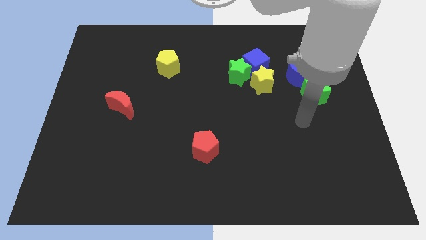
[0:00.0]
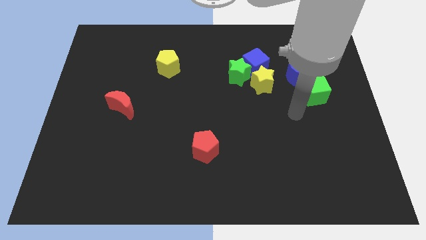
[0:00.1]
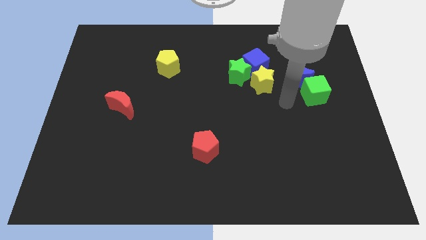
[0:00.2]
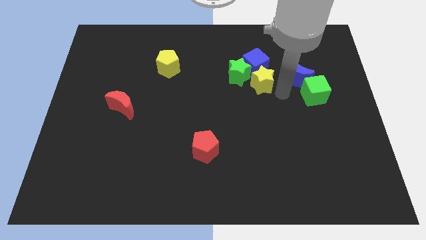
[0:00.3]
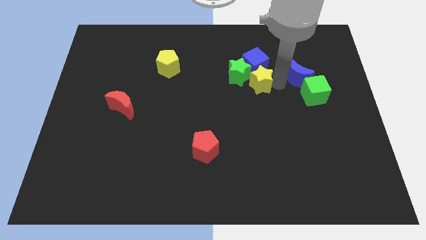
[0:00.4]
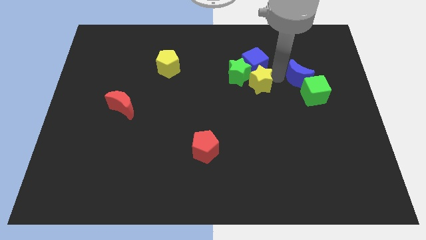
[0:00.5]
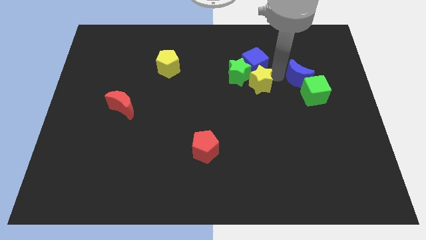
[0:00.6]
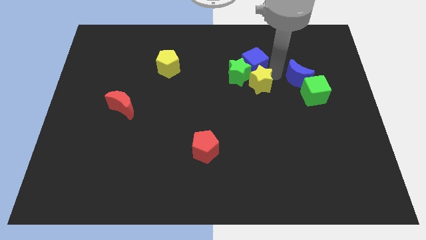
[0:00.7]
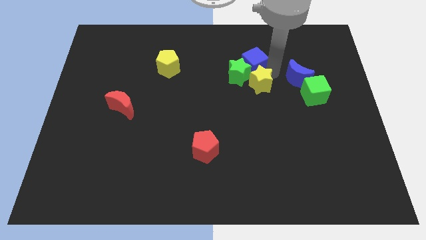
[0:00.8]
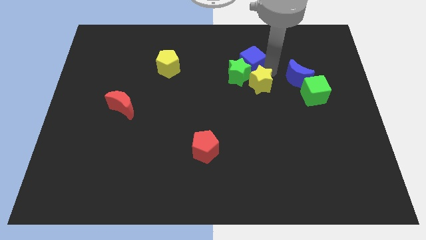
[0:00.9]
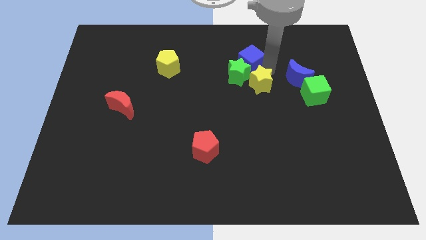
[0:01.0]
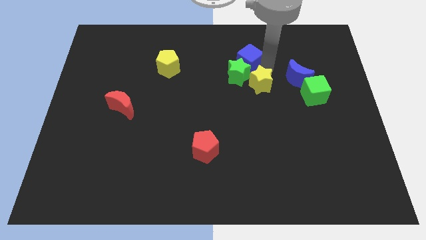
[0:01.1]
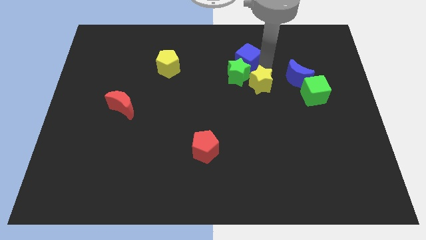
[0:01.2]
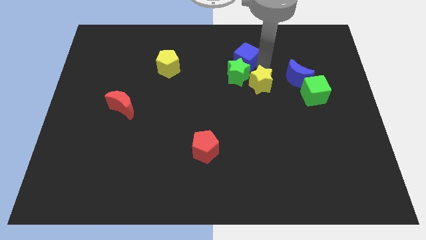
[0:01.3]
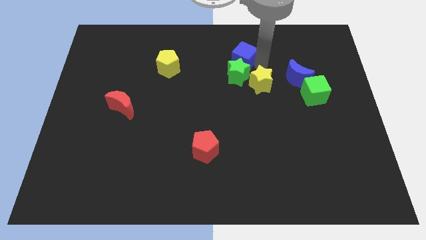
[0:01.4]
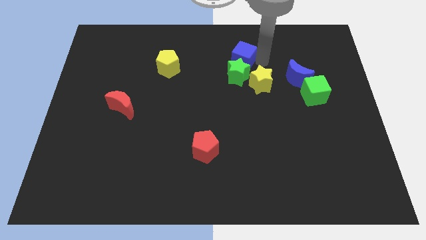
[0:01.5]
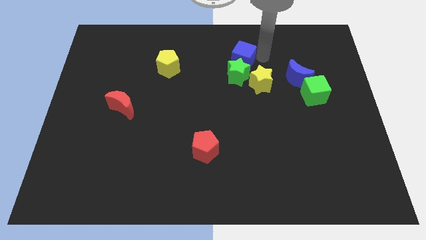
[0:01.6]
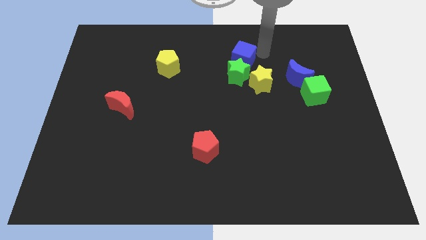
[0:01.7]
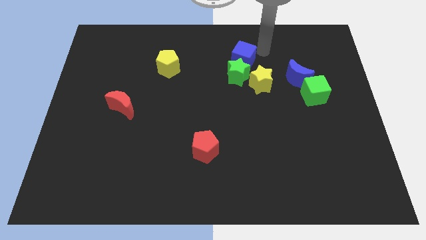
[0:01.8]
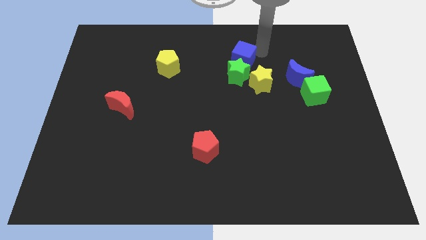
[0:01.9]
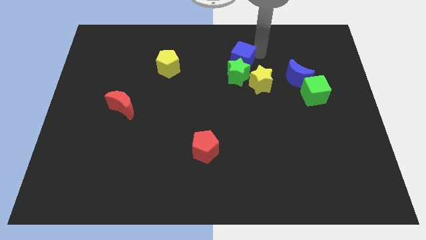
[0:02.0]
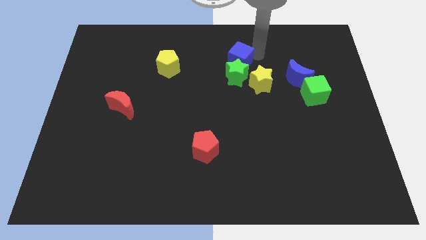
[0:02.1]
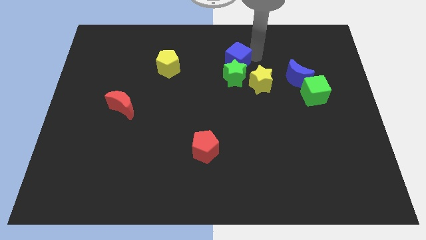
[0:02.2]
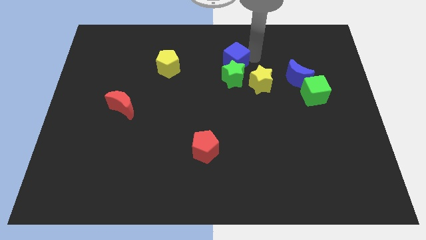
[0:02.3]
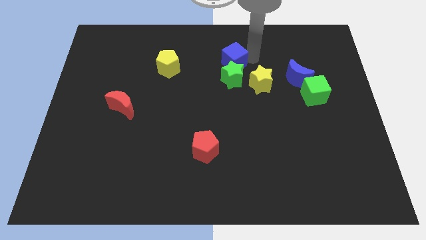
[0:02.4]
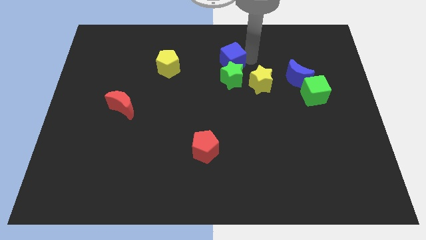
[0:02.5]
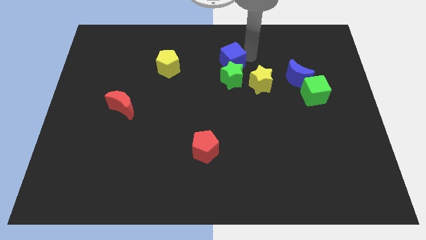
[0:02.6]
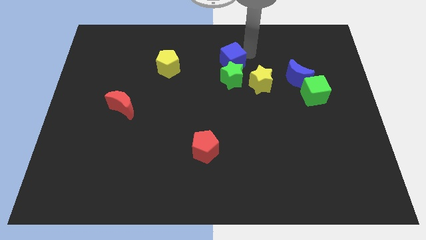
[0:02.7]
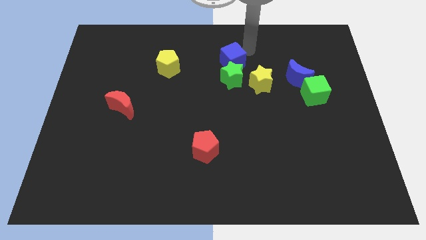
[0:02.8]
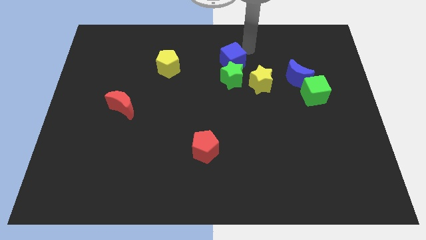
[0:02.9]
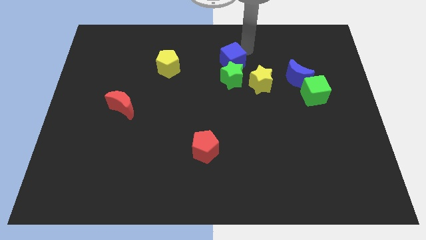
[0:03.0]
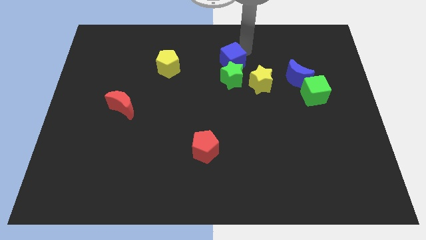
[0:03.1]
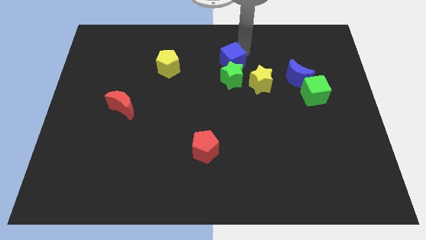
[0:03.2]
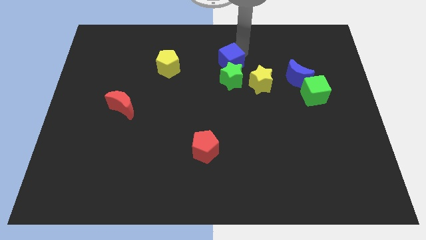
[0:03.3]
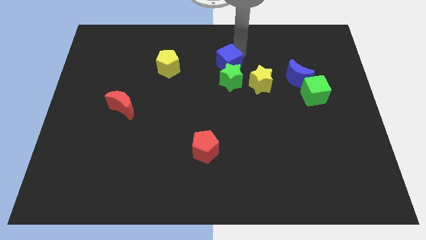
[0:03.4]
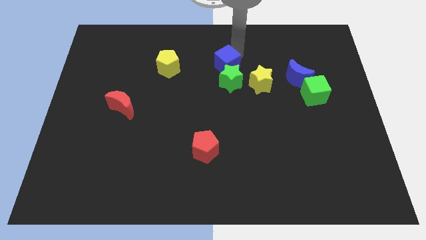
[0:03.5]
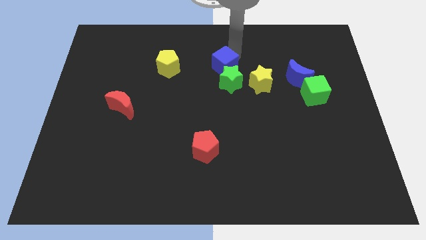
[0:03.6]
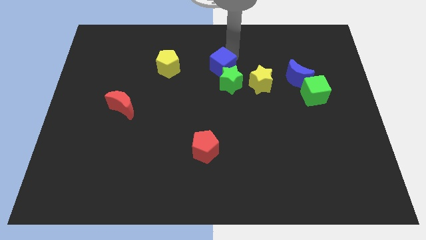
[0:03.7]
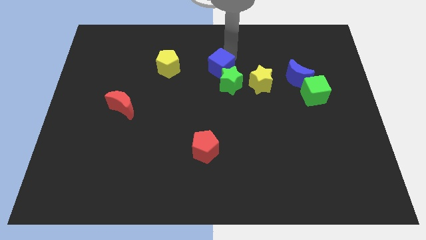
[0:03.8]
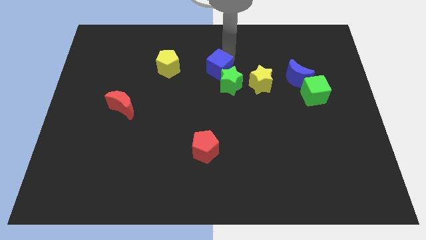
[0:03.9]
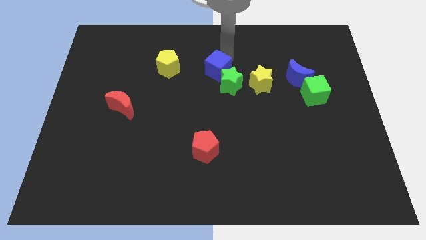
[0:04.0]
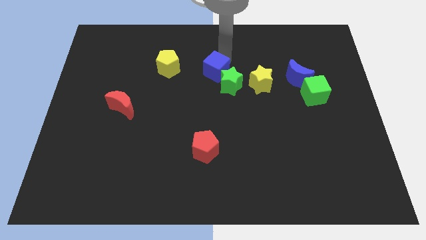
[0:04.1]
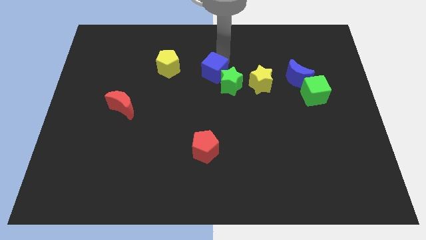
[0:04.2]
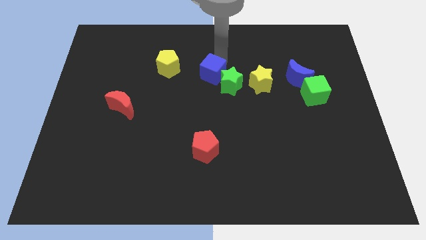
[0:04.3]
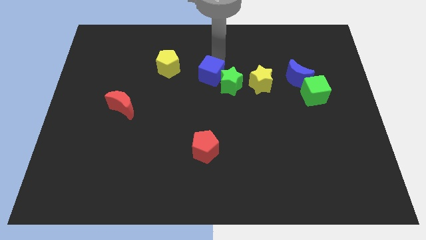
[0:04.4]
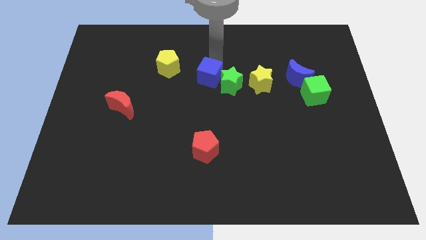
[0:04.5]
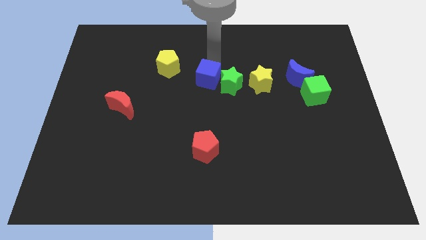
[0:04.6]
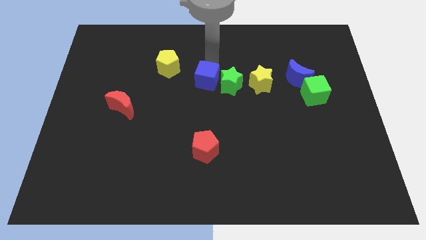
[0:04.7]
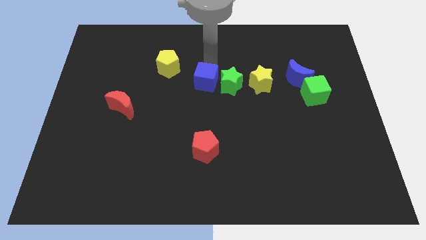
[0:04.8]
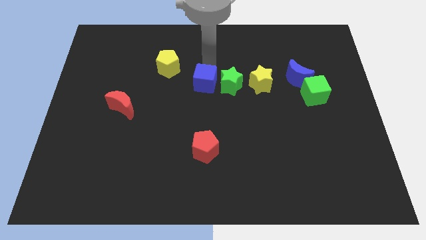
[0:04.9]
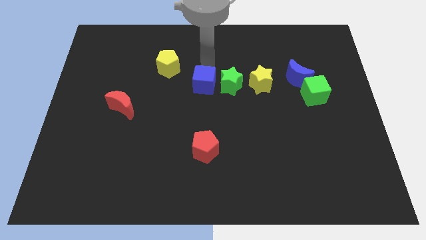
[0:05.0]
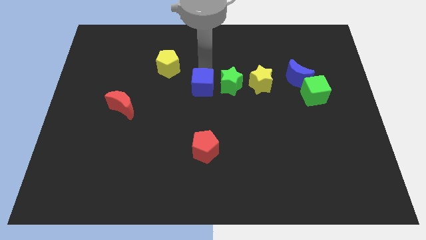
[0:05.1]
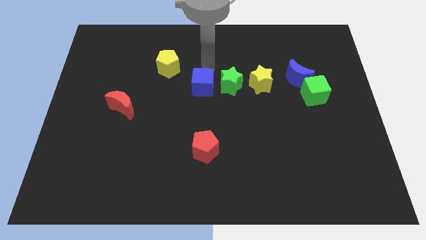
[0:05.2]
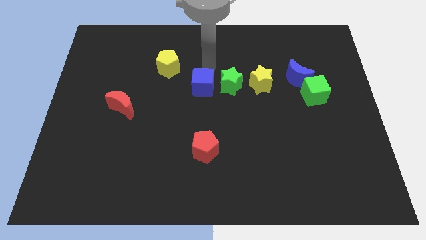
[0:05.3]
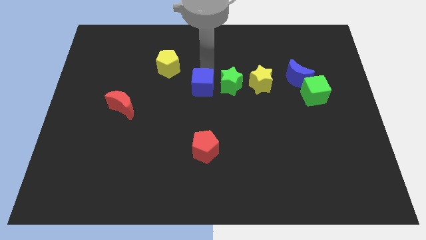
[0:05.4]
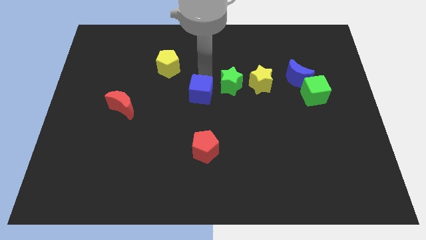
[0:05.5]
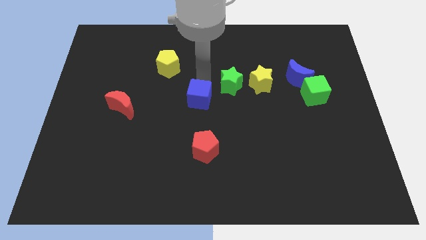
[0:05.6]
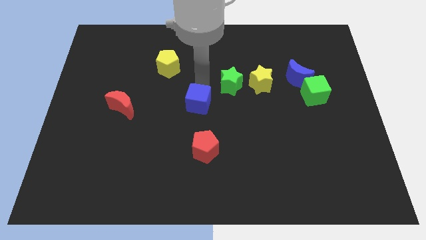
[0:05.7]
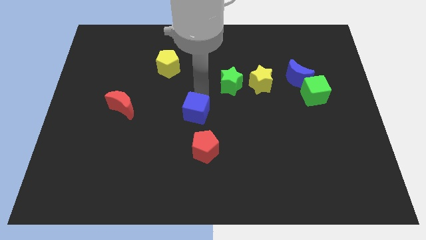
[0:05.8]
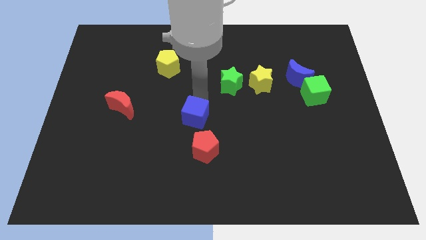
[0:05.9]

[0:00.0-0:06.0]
slide the blue cube to the top left side of the red pentagon

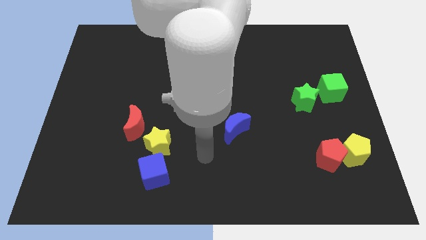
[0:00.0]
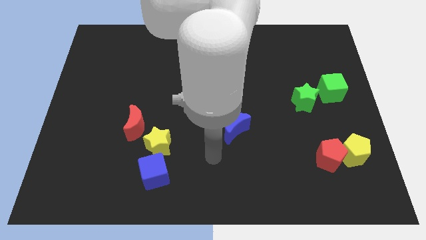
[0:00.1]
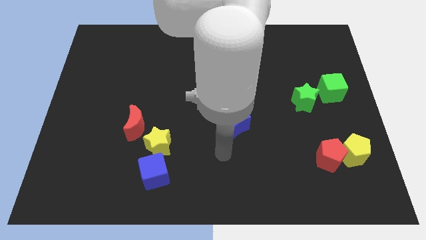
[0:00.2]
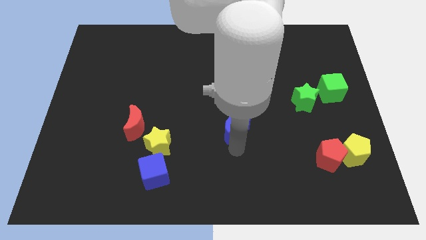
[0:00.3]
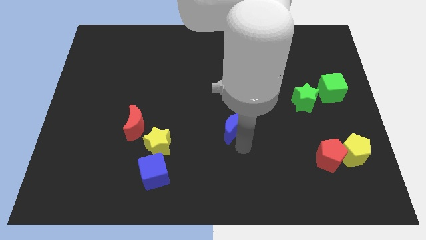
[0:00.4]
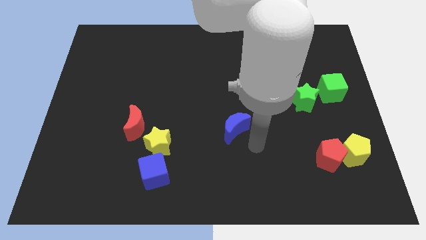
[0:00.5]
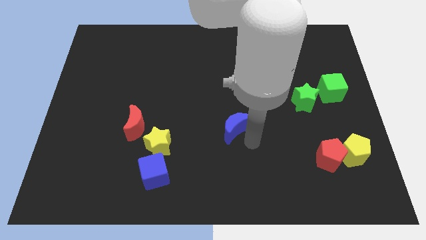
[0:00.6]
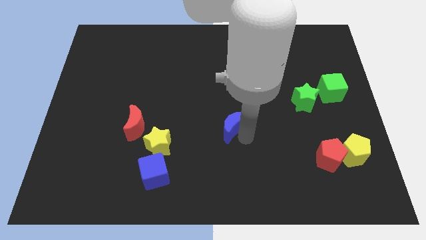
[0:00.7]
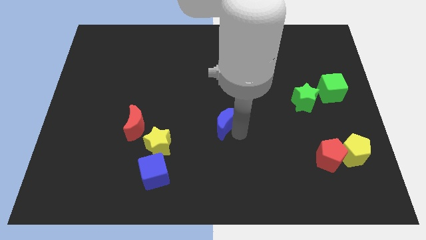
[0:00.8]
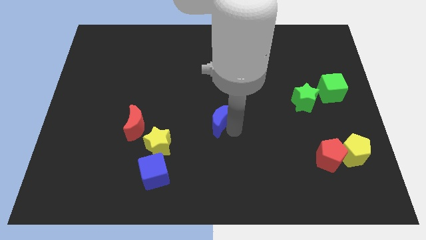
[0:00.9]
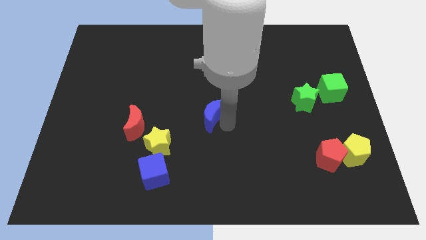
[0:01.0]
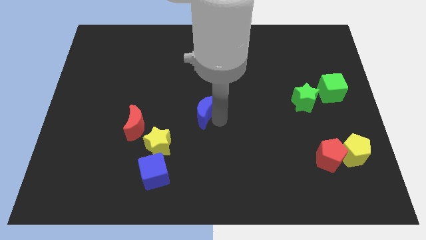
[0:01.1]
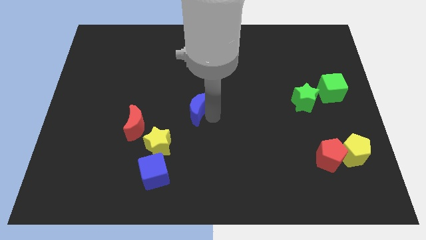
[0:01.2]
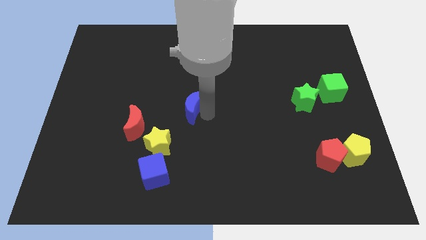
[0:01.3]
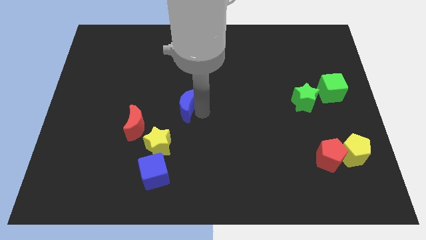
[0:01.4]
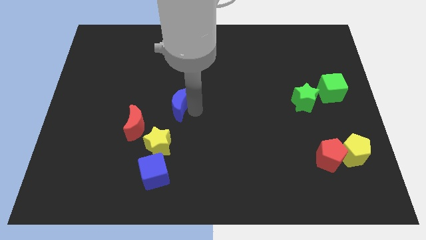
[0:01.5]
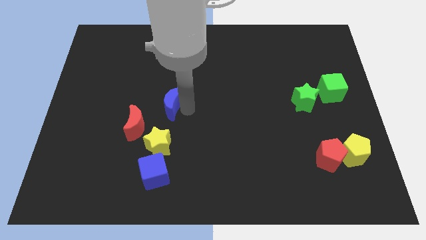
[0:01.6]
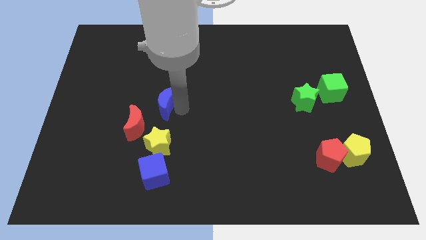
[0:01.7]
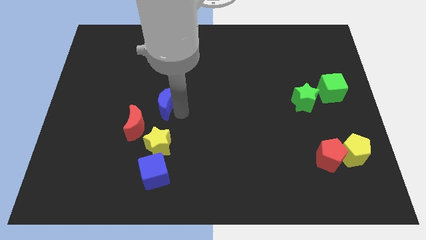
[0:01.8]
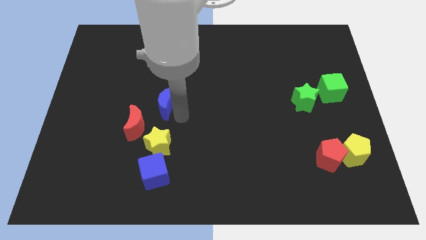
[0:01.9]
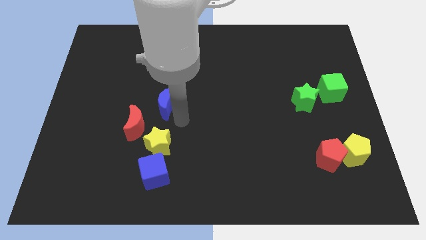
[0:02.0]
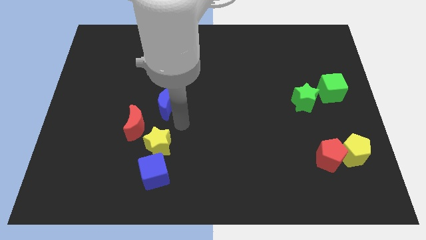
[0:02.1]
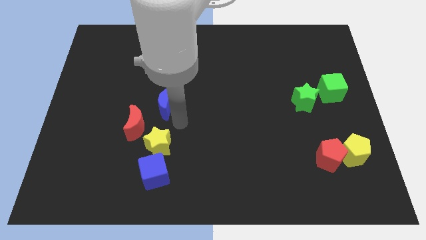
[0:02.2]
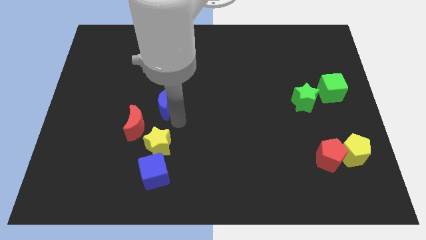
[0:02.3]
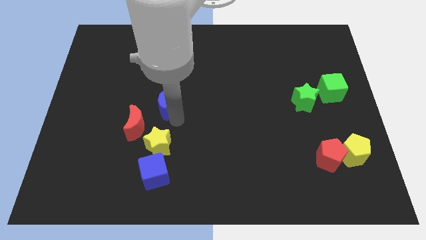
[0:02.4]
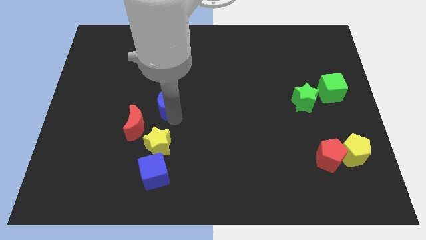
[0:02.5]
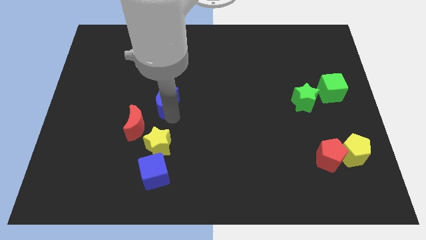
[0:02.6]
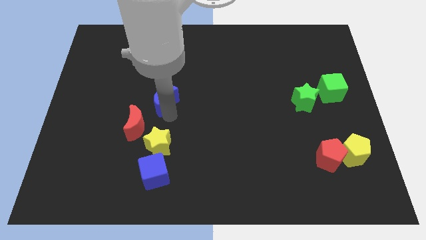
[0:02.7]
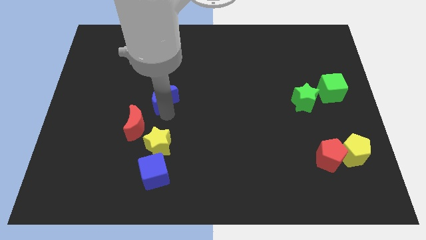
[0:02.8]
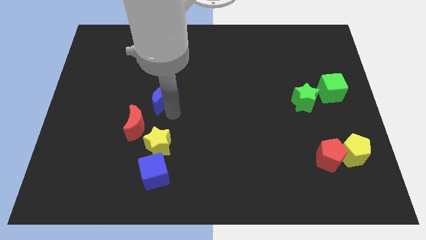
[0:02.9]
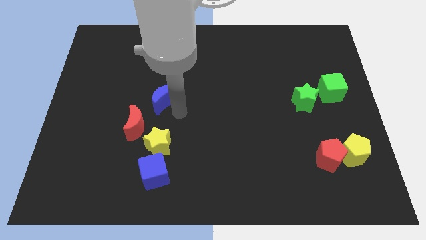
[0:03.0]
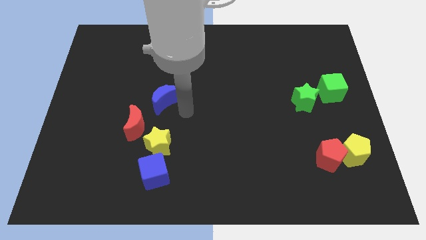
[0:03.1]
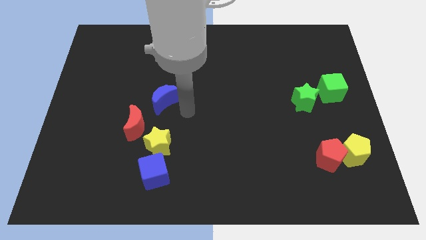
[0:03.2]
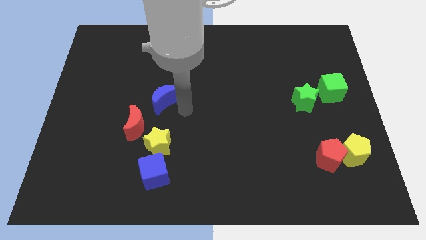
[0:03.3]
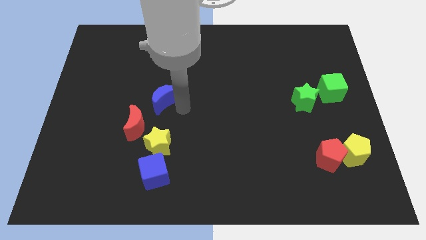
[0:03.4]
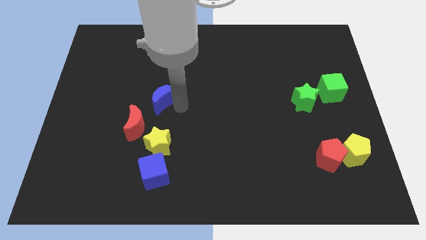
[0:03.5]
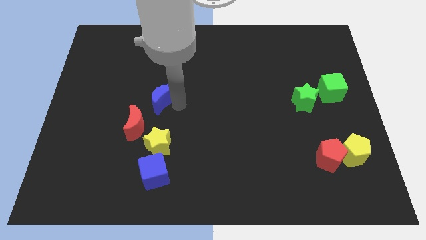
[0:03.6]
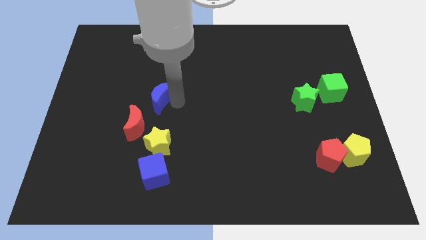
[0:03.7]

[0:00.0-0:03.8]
push the blue moon to the top of the red moon
